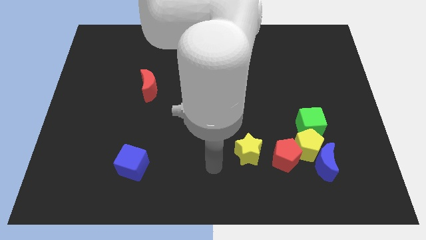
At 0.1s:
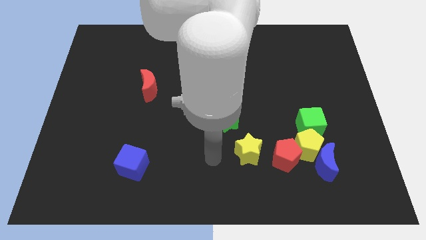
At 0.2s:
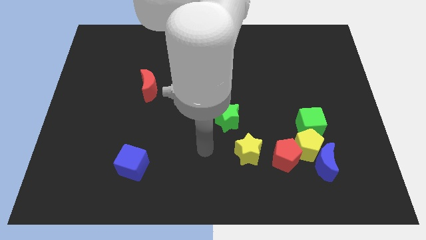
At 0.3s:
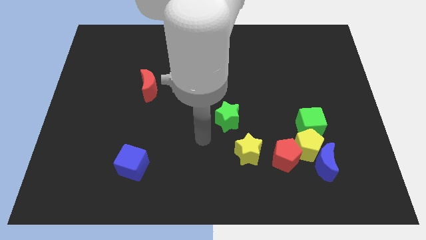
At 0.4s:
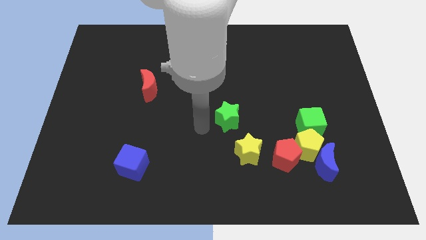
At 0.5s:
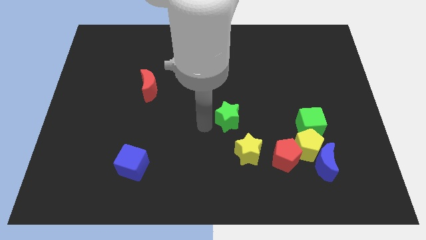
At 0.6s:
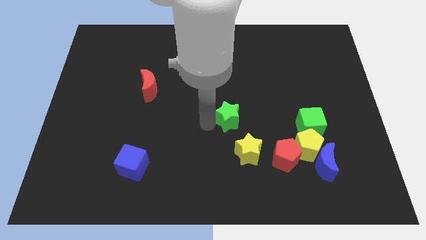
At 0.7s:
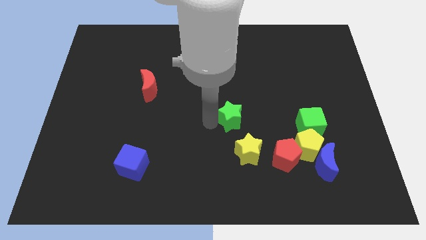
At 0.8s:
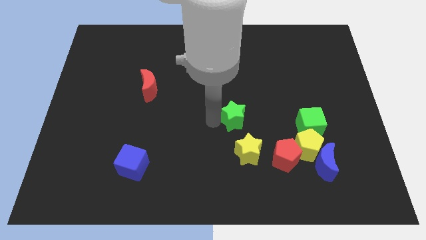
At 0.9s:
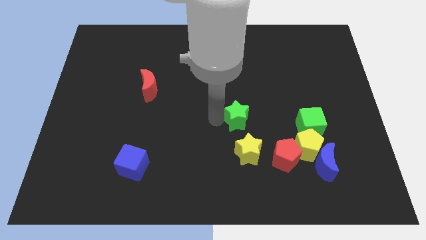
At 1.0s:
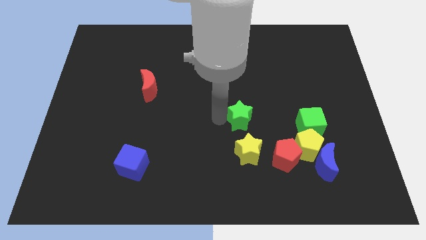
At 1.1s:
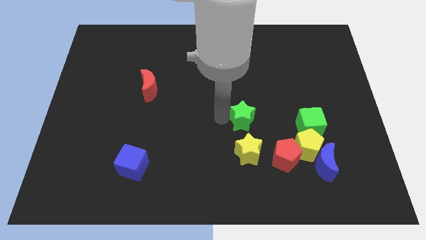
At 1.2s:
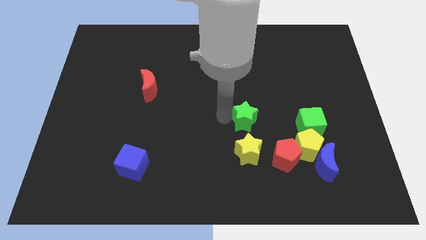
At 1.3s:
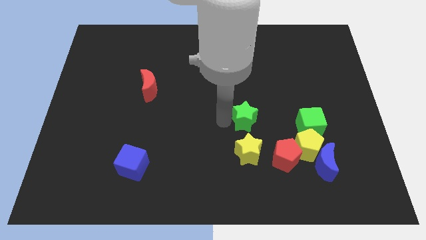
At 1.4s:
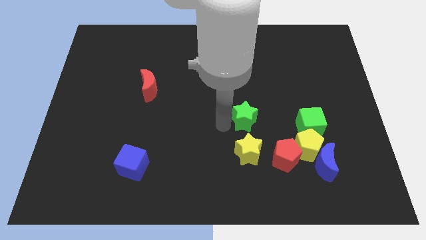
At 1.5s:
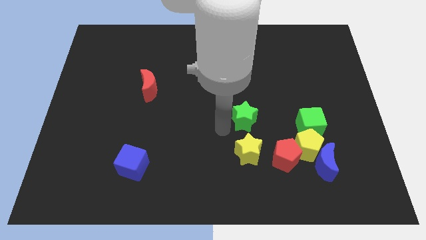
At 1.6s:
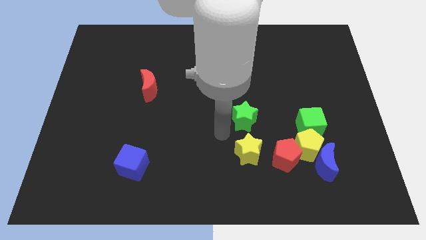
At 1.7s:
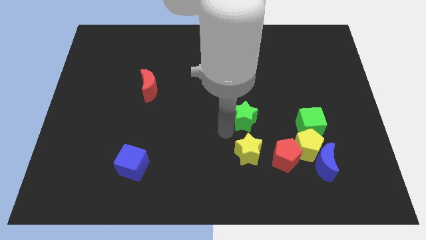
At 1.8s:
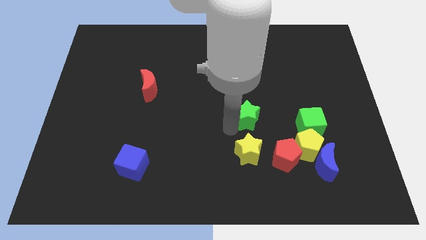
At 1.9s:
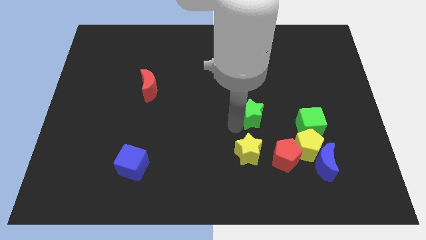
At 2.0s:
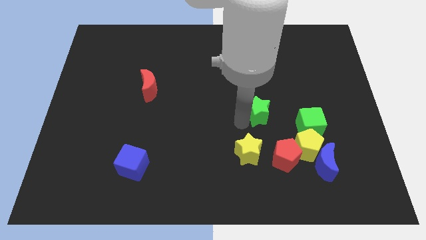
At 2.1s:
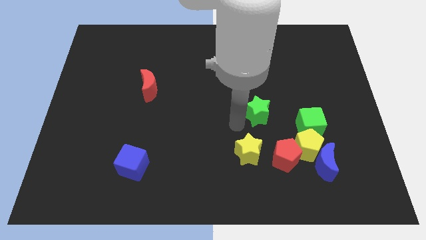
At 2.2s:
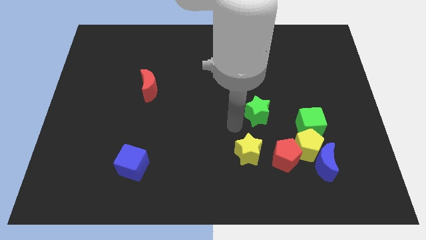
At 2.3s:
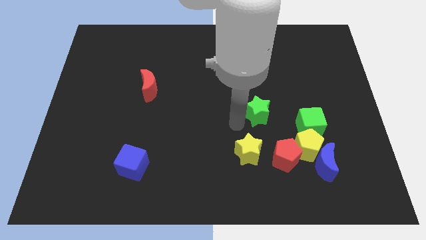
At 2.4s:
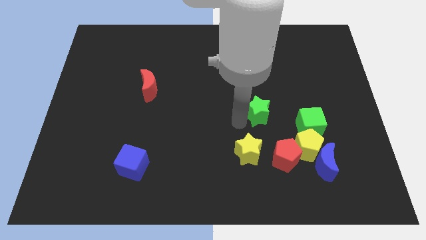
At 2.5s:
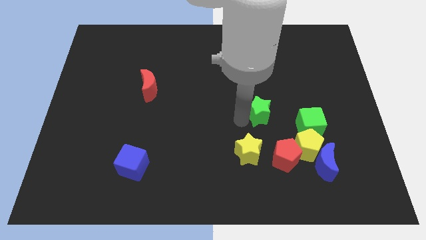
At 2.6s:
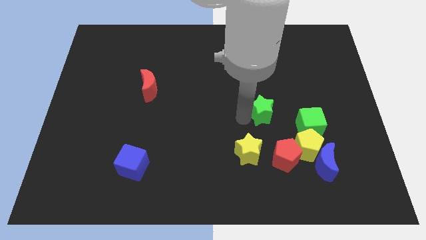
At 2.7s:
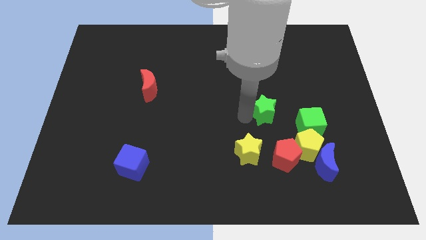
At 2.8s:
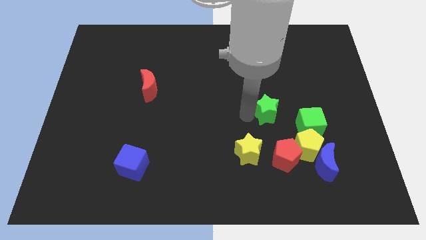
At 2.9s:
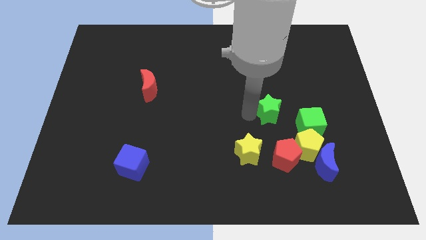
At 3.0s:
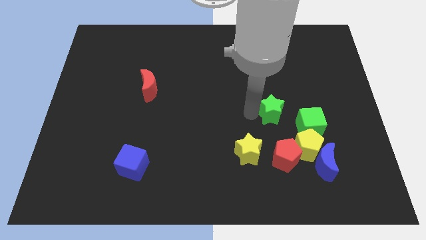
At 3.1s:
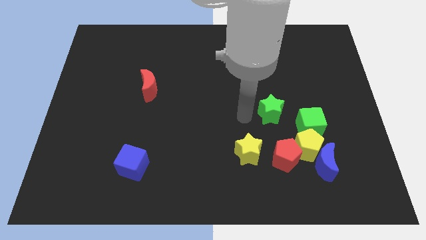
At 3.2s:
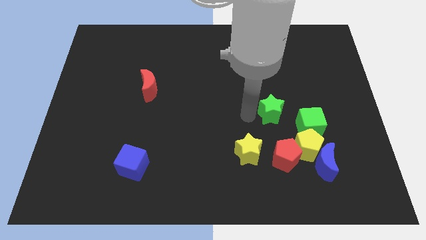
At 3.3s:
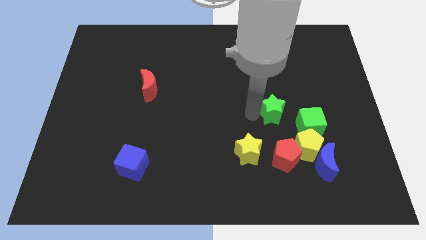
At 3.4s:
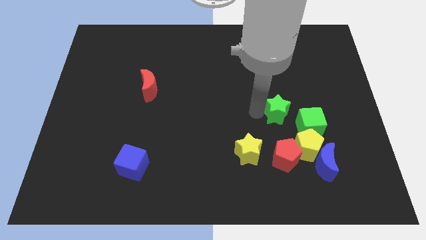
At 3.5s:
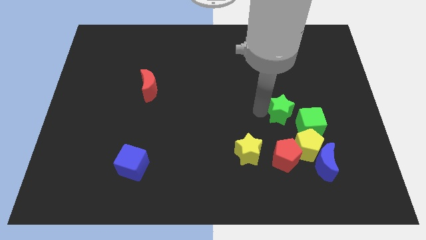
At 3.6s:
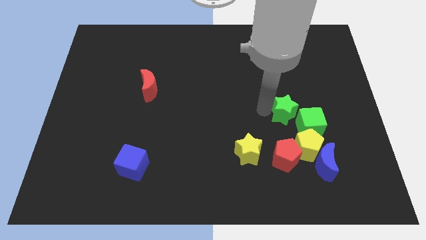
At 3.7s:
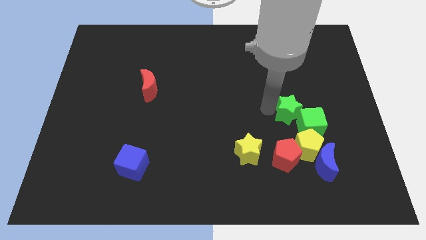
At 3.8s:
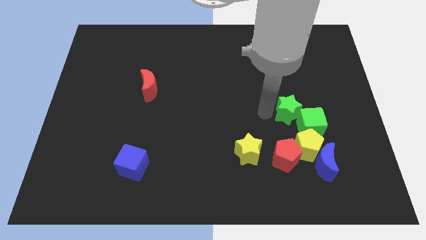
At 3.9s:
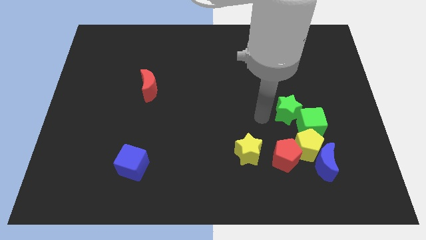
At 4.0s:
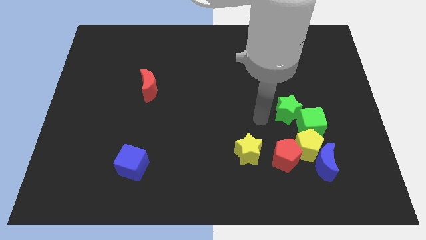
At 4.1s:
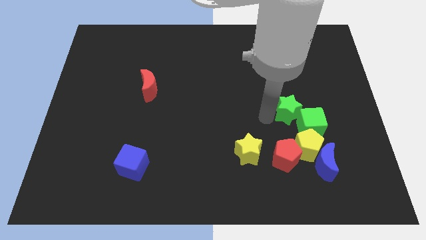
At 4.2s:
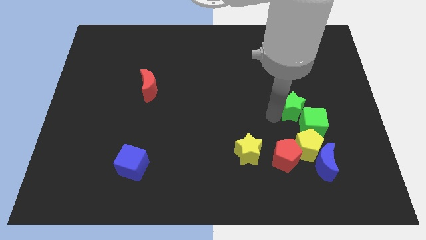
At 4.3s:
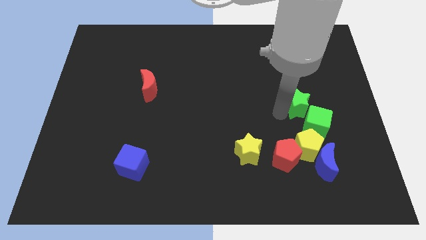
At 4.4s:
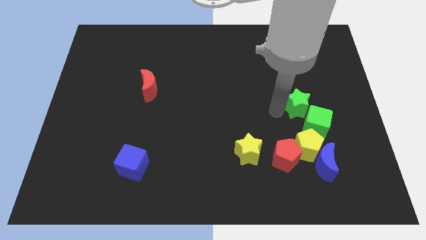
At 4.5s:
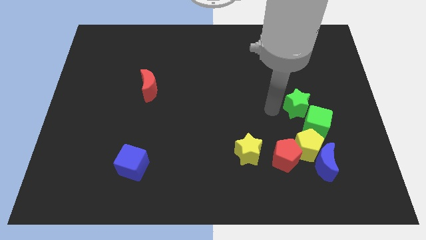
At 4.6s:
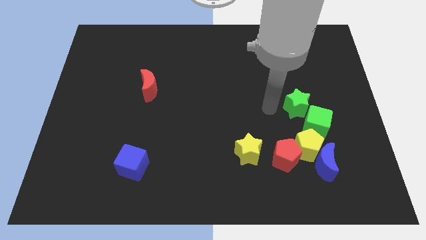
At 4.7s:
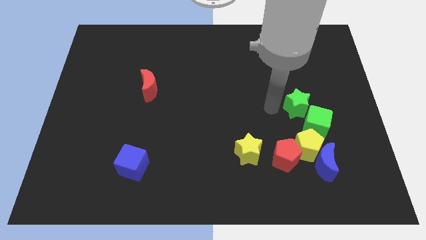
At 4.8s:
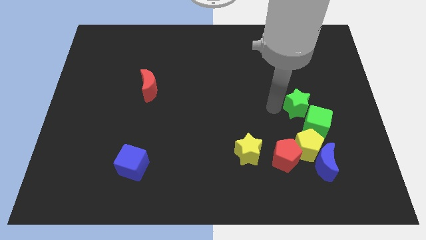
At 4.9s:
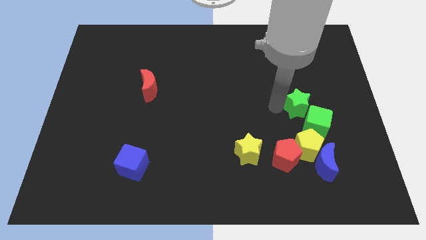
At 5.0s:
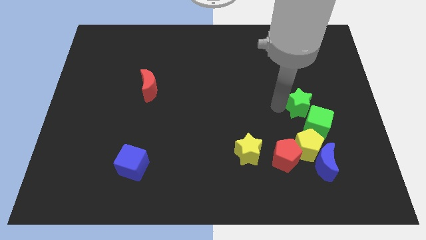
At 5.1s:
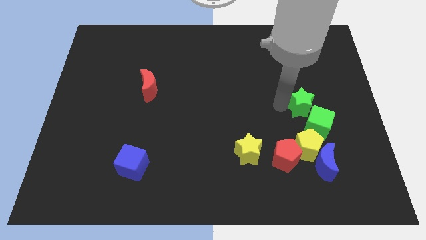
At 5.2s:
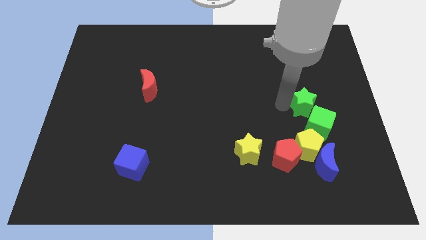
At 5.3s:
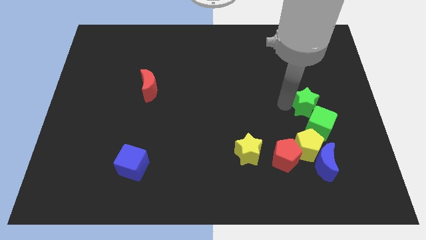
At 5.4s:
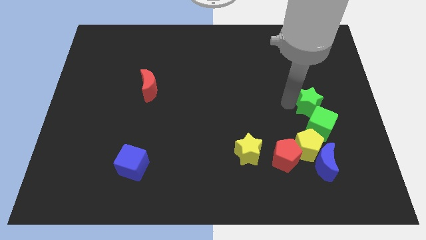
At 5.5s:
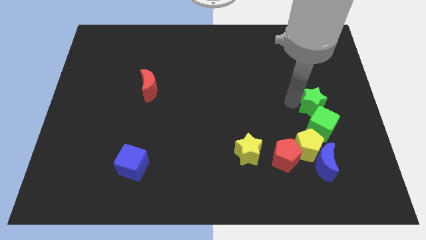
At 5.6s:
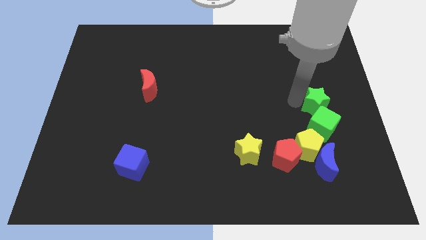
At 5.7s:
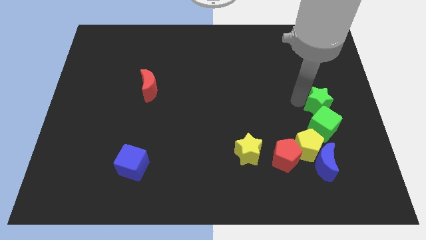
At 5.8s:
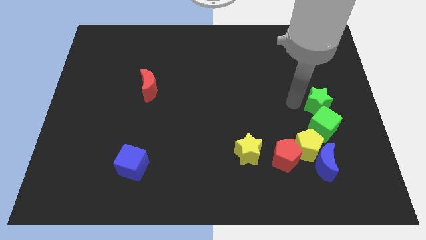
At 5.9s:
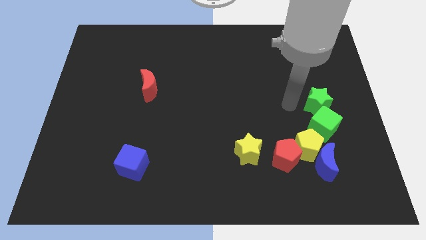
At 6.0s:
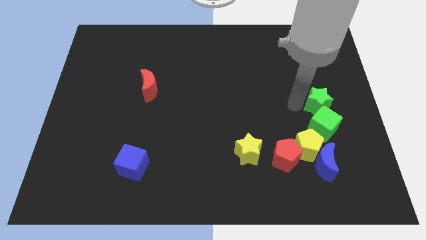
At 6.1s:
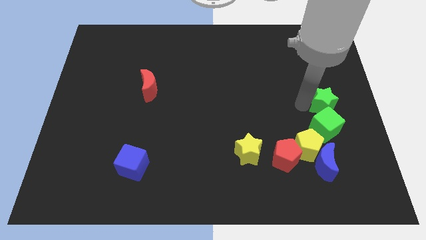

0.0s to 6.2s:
push the green star to the right side of the board
